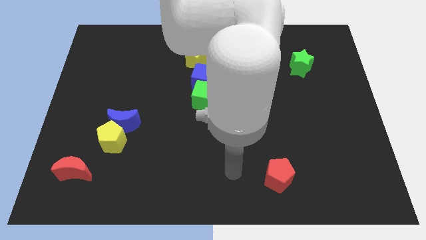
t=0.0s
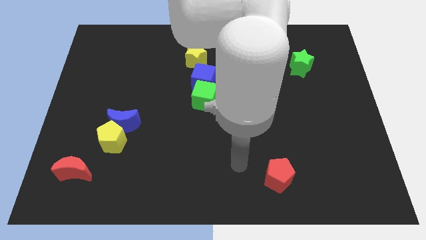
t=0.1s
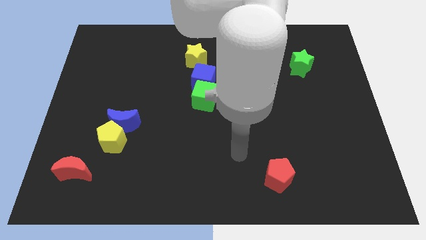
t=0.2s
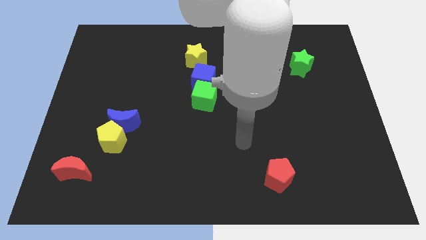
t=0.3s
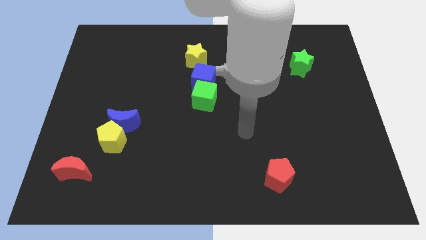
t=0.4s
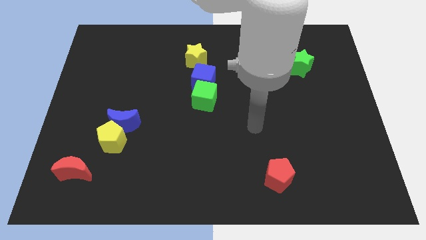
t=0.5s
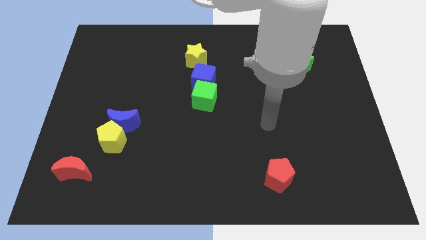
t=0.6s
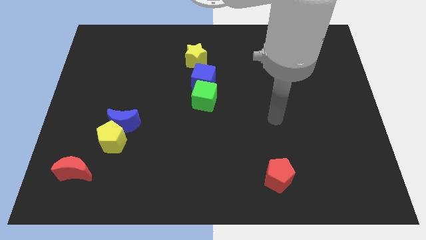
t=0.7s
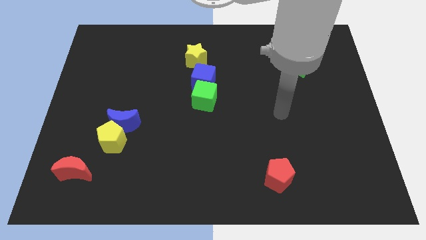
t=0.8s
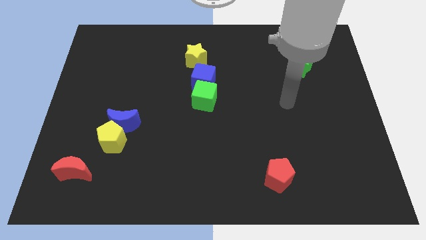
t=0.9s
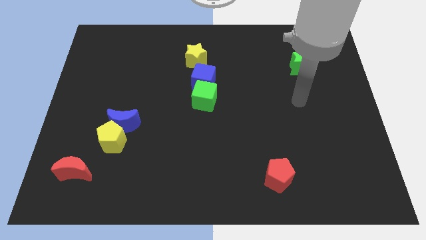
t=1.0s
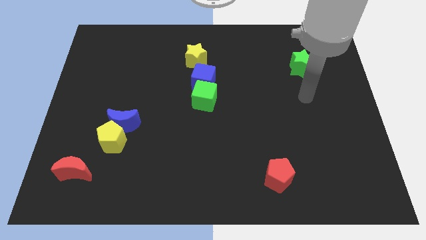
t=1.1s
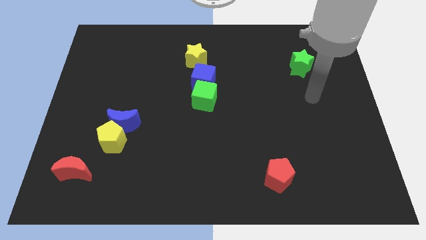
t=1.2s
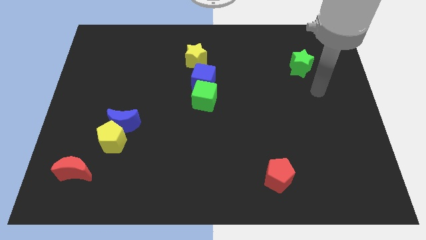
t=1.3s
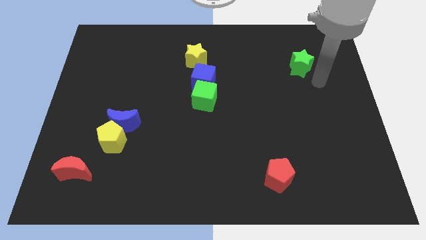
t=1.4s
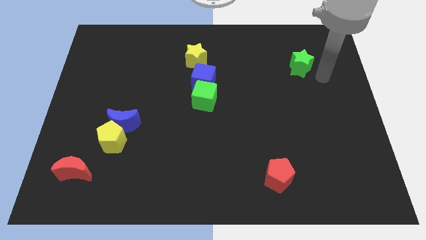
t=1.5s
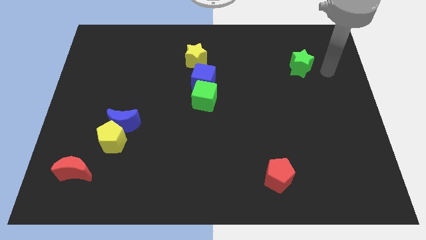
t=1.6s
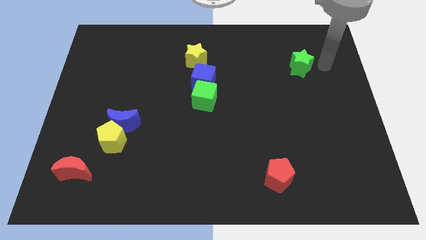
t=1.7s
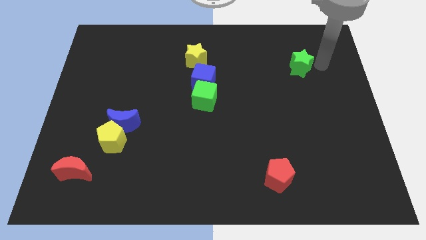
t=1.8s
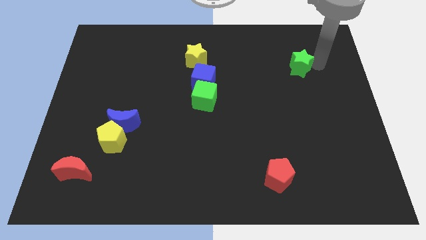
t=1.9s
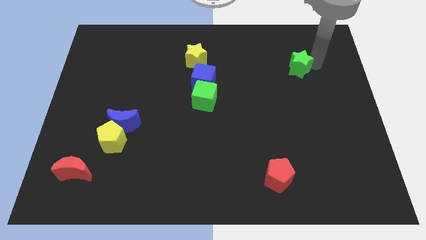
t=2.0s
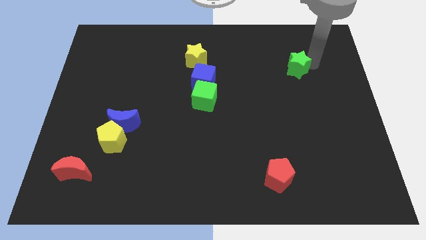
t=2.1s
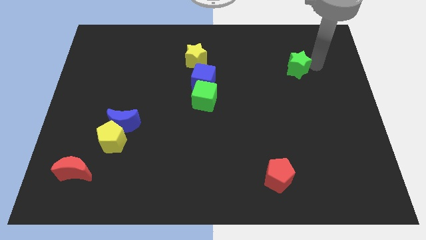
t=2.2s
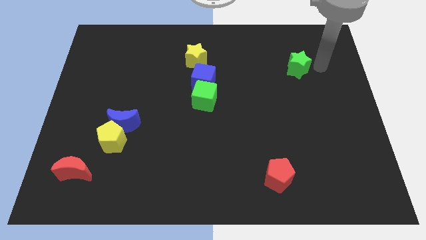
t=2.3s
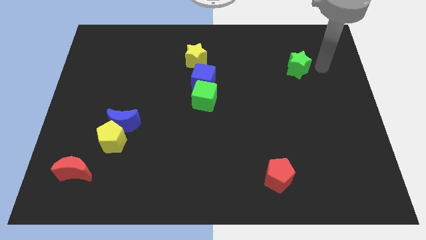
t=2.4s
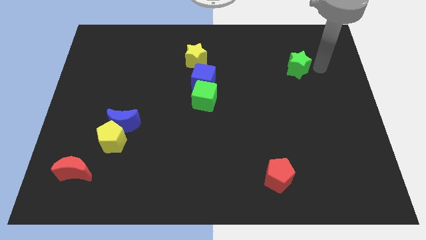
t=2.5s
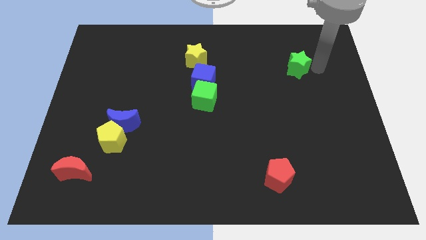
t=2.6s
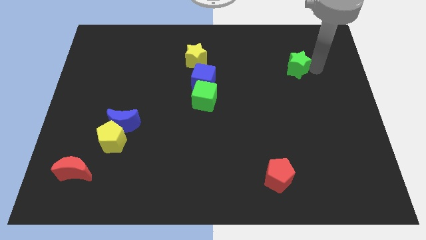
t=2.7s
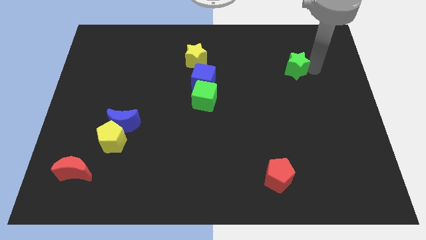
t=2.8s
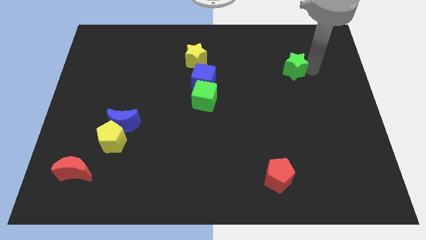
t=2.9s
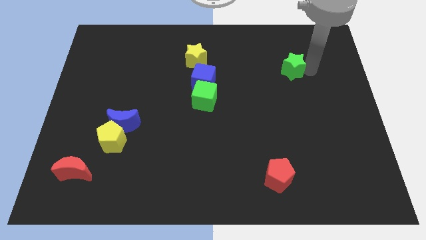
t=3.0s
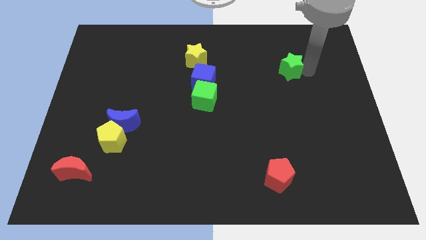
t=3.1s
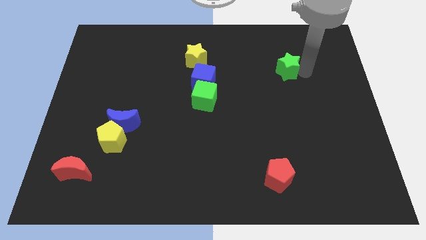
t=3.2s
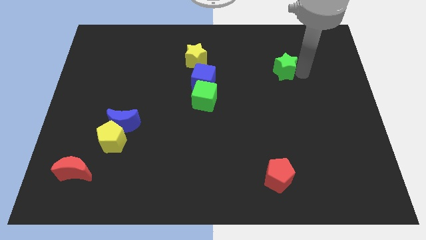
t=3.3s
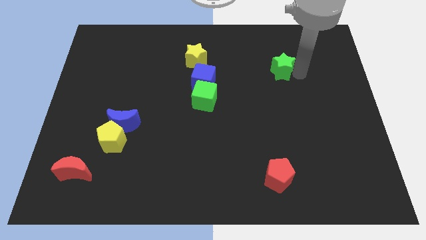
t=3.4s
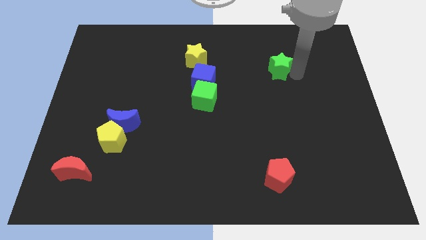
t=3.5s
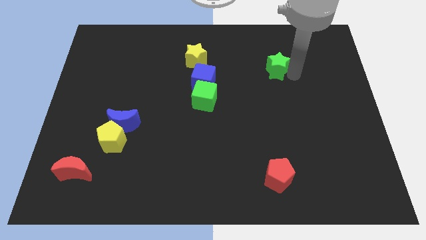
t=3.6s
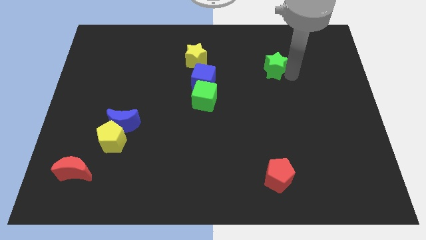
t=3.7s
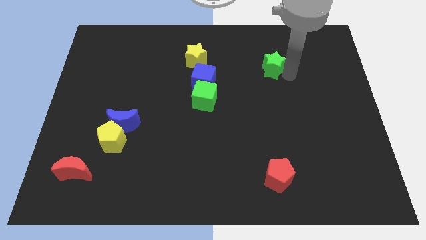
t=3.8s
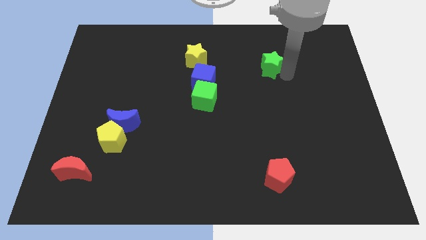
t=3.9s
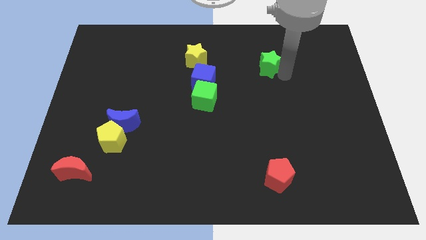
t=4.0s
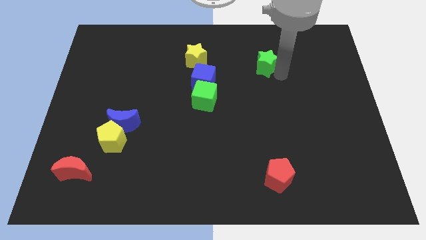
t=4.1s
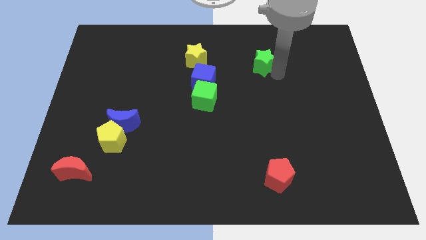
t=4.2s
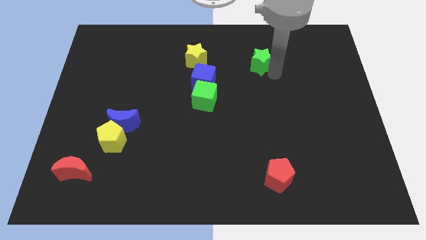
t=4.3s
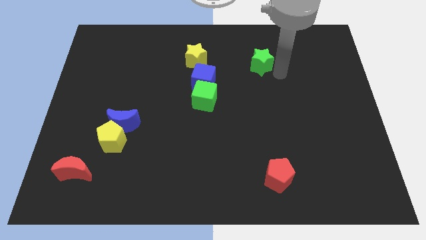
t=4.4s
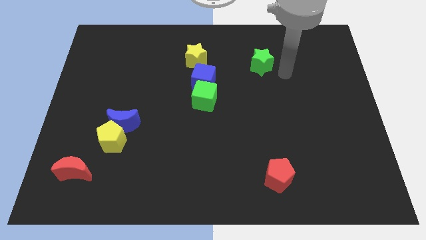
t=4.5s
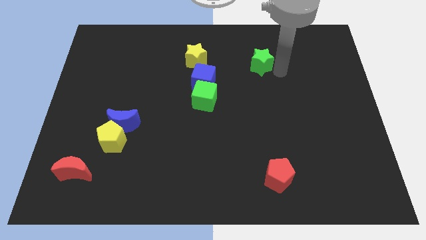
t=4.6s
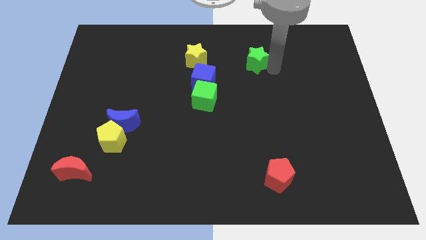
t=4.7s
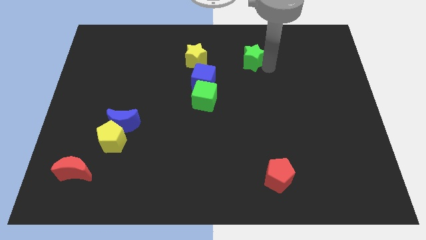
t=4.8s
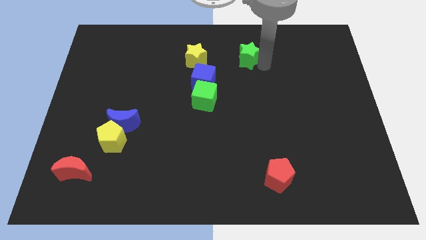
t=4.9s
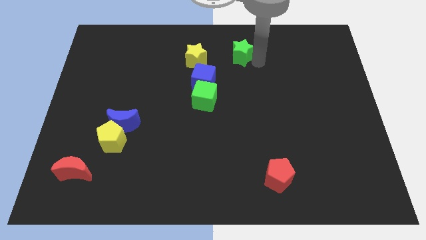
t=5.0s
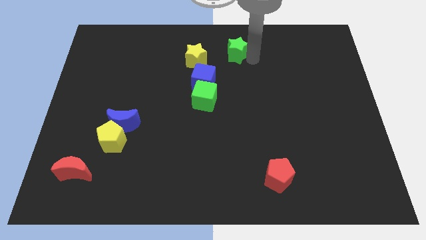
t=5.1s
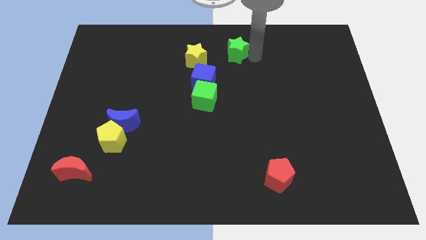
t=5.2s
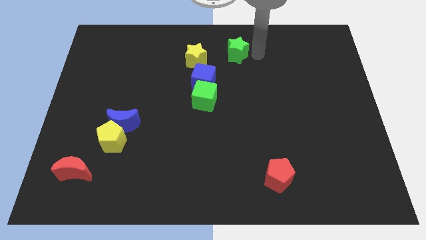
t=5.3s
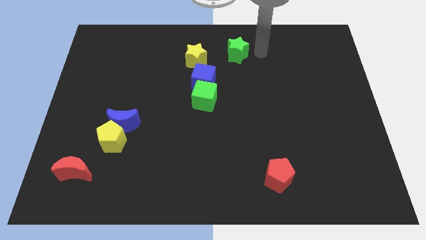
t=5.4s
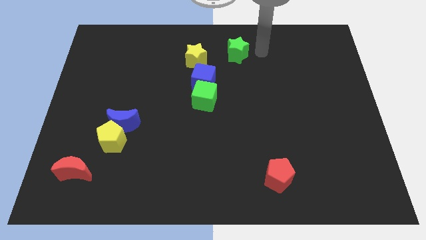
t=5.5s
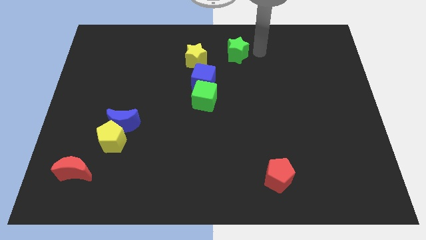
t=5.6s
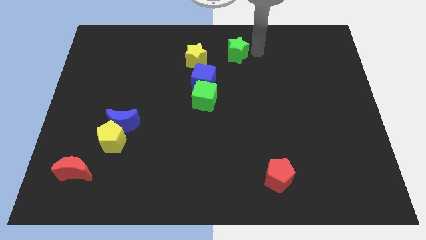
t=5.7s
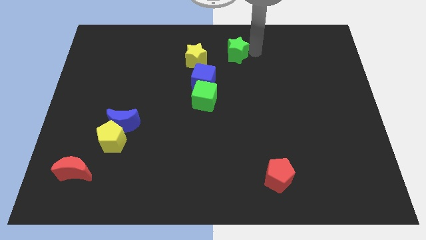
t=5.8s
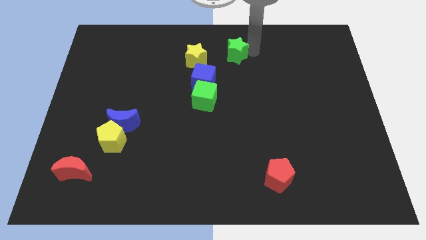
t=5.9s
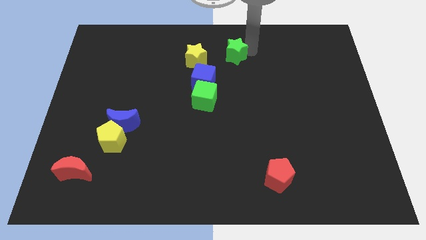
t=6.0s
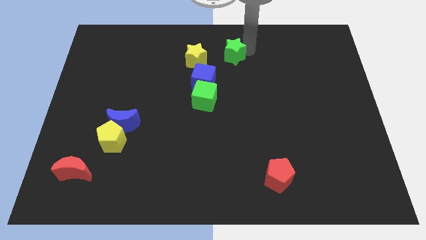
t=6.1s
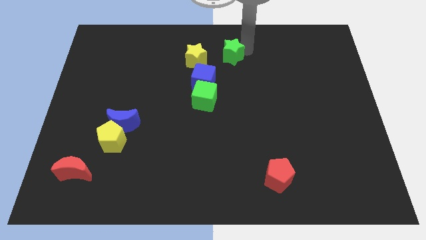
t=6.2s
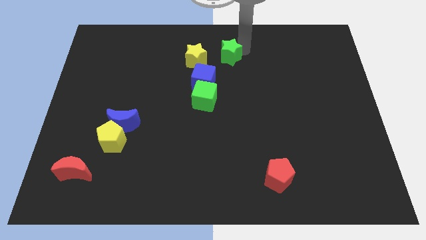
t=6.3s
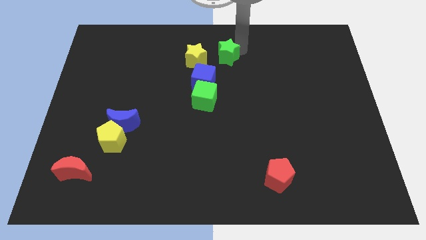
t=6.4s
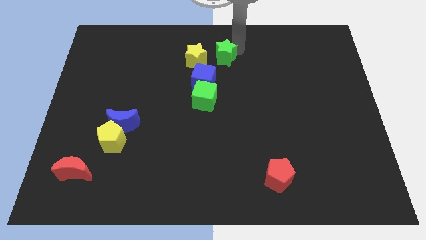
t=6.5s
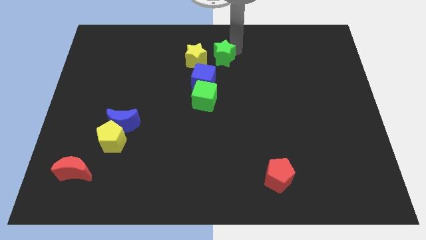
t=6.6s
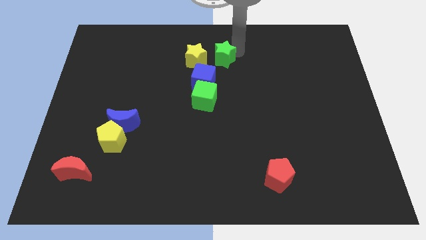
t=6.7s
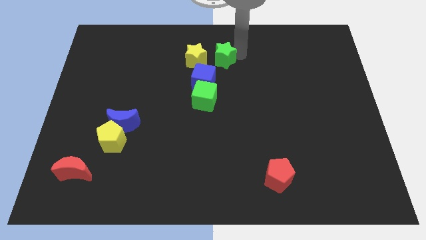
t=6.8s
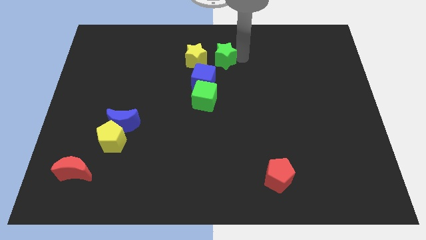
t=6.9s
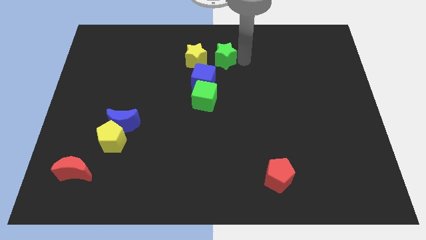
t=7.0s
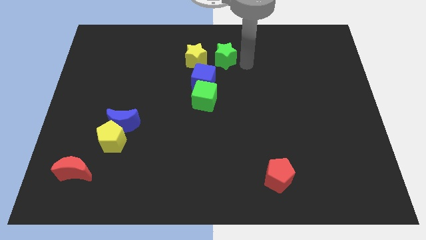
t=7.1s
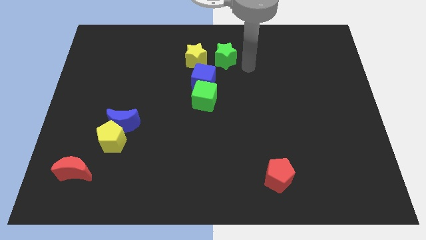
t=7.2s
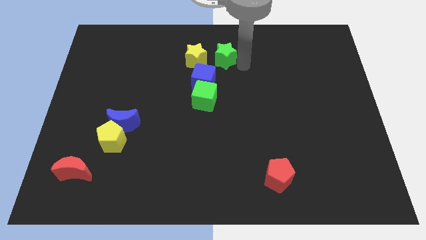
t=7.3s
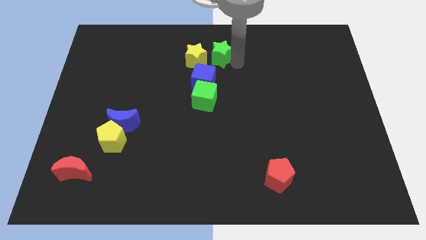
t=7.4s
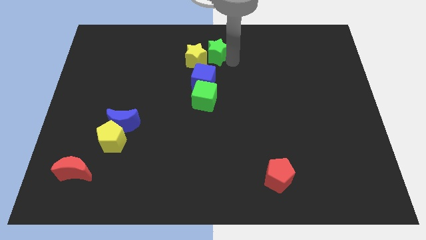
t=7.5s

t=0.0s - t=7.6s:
slide the green star left
